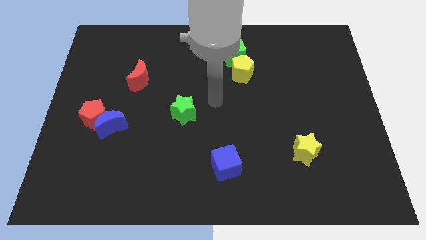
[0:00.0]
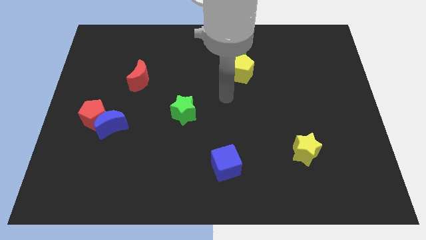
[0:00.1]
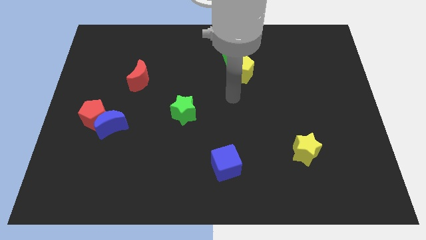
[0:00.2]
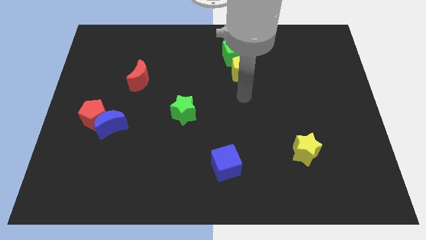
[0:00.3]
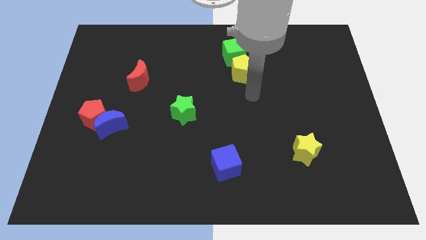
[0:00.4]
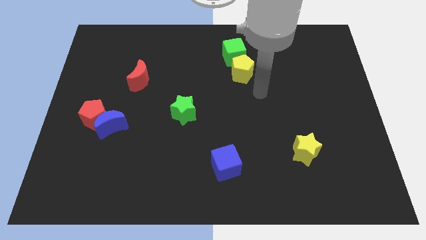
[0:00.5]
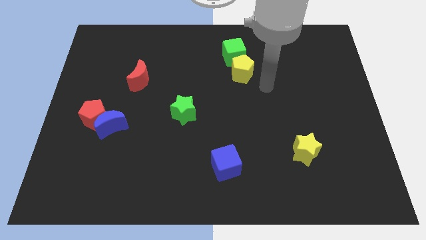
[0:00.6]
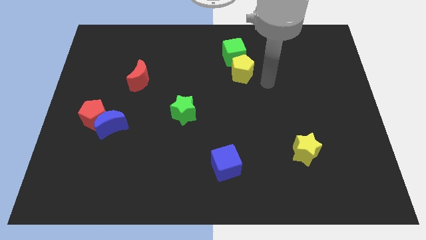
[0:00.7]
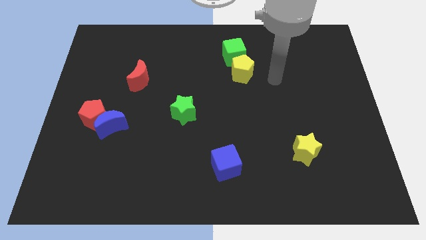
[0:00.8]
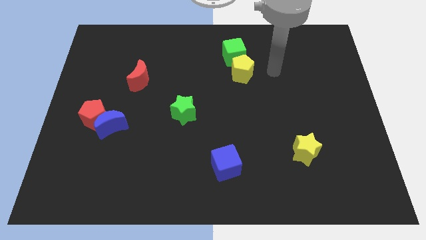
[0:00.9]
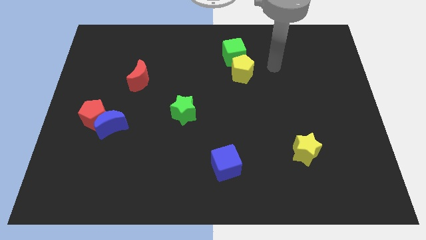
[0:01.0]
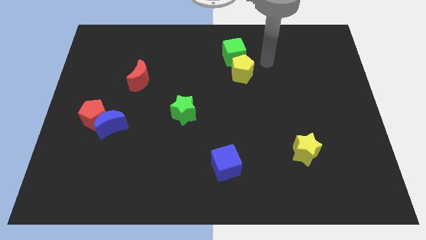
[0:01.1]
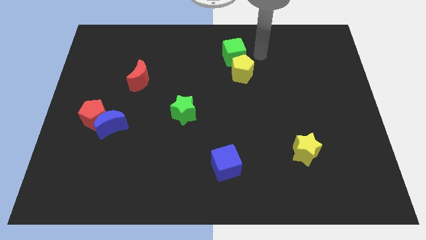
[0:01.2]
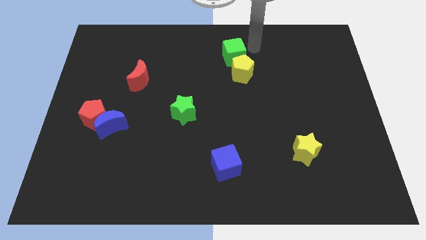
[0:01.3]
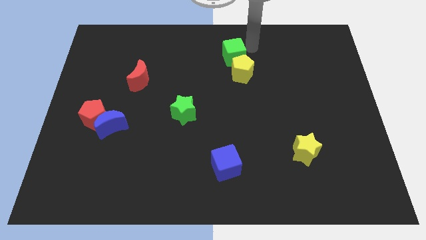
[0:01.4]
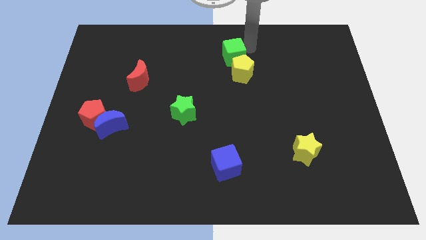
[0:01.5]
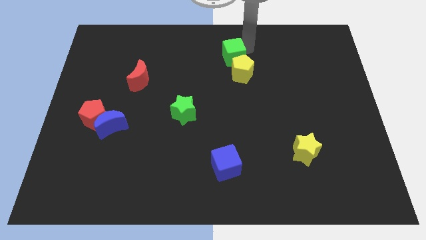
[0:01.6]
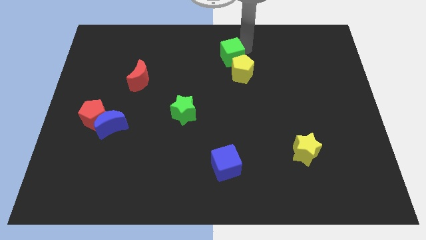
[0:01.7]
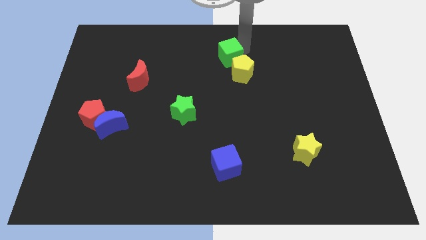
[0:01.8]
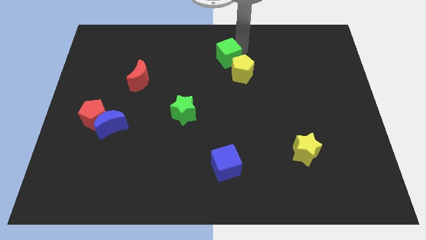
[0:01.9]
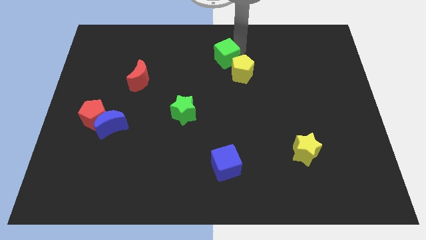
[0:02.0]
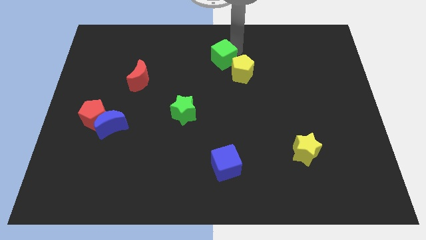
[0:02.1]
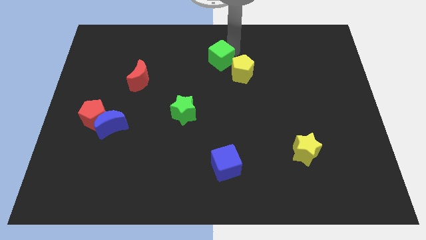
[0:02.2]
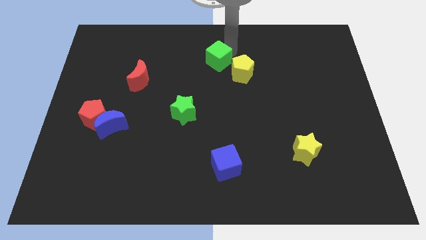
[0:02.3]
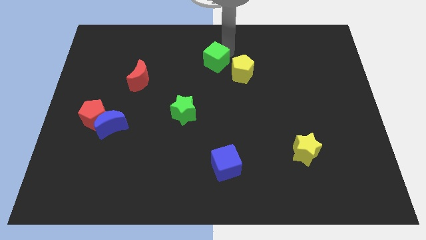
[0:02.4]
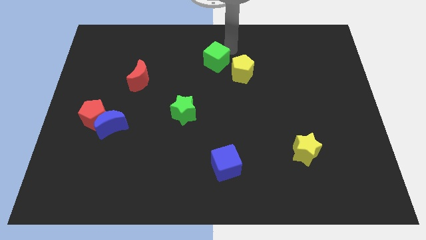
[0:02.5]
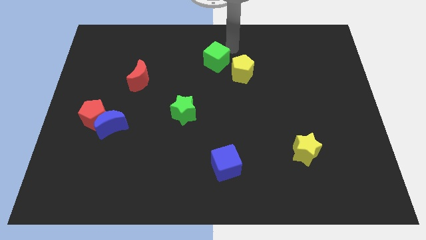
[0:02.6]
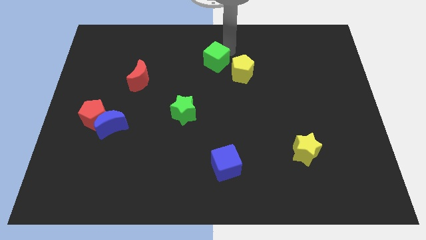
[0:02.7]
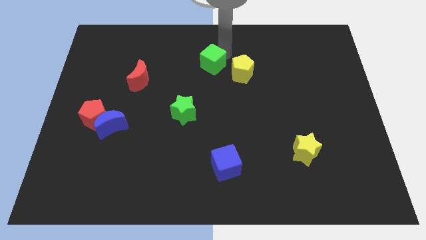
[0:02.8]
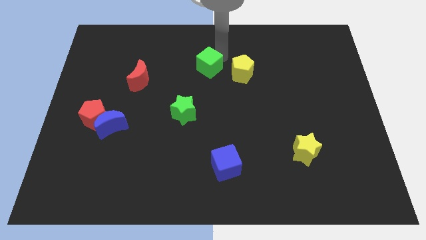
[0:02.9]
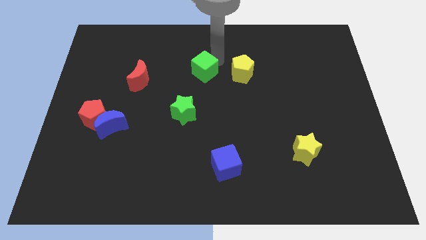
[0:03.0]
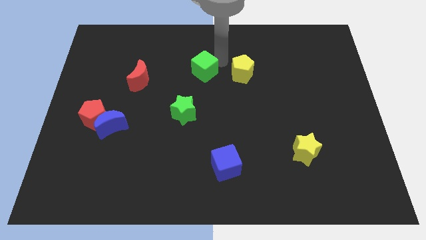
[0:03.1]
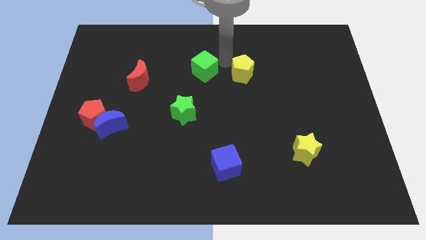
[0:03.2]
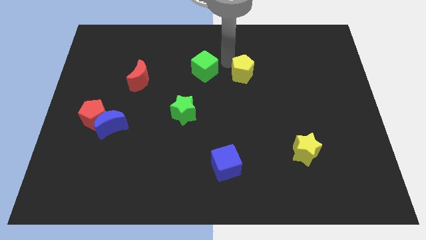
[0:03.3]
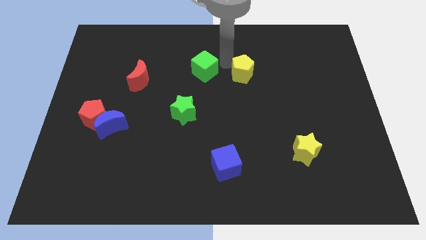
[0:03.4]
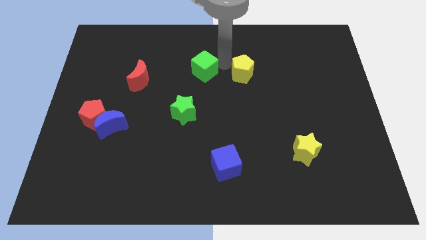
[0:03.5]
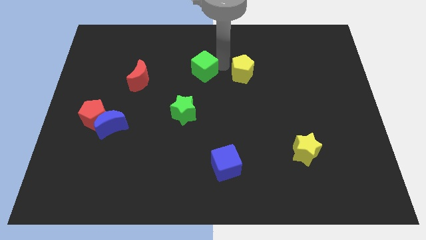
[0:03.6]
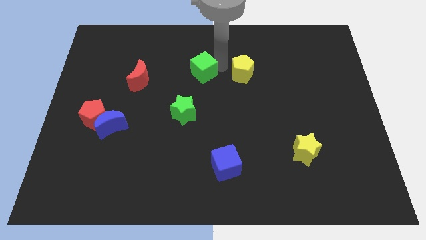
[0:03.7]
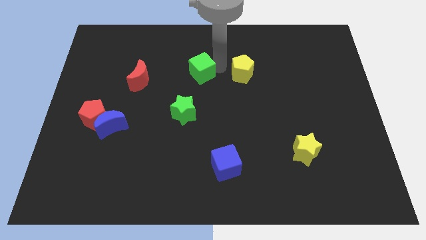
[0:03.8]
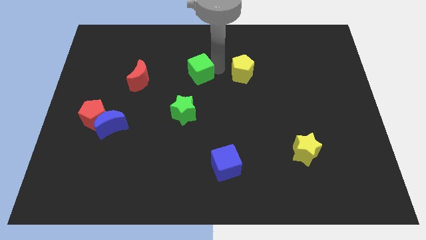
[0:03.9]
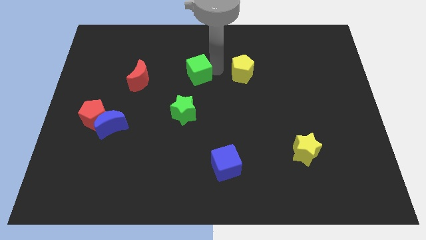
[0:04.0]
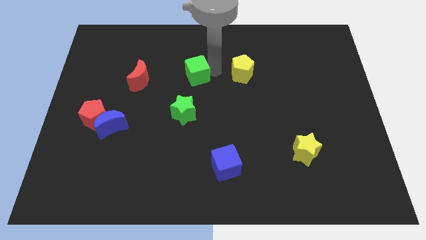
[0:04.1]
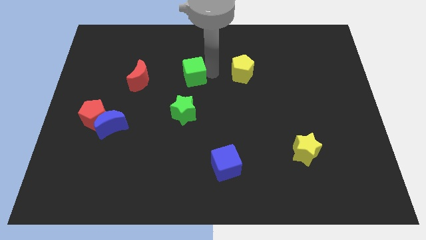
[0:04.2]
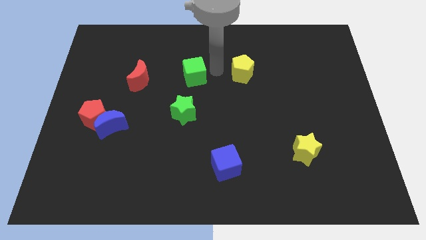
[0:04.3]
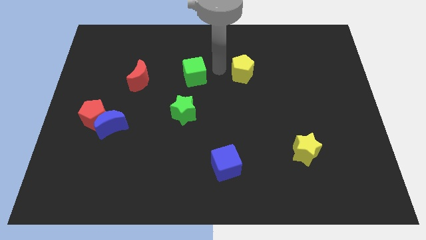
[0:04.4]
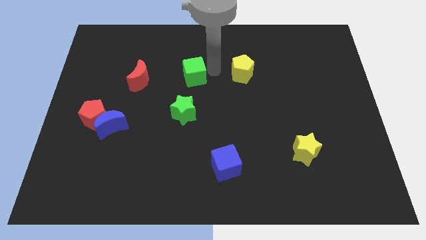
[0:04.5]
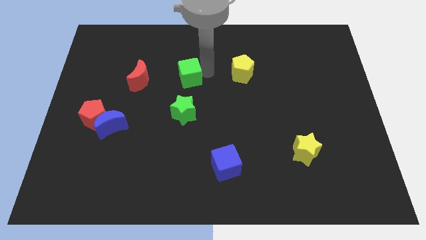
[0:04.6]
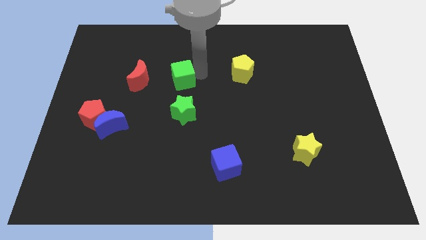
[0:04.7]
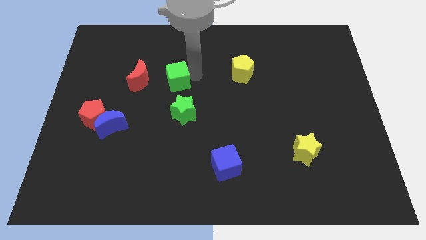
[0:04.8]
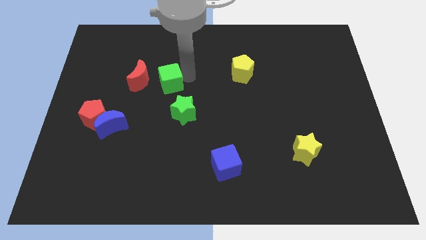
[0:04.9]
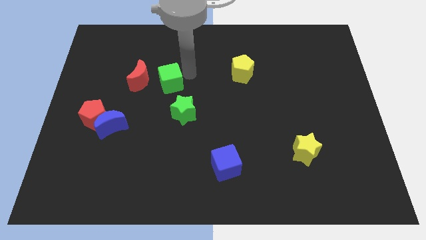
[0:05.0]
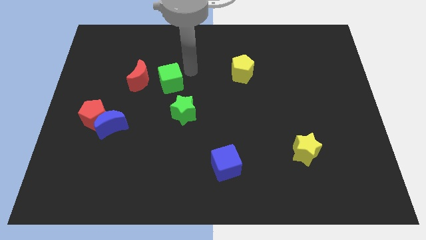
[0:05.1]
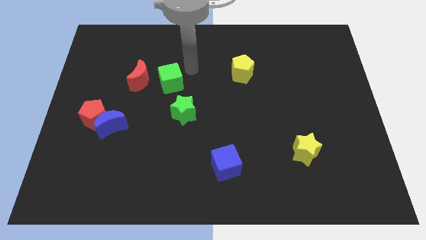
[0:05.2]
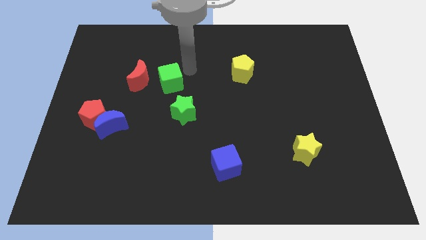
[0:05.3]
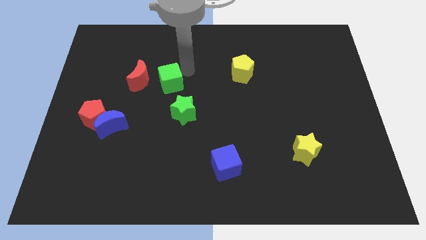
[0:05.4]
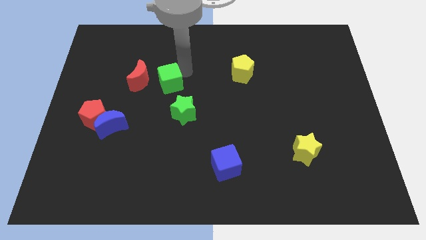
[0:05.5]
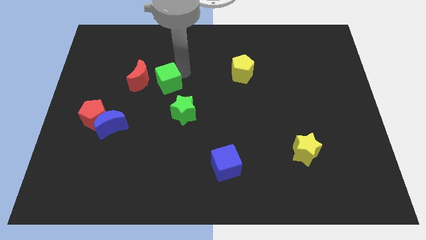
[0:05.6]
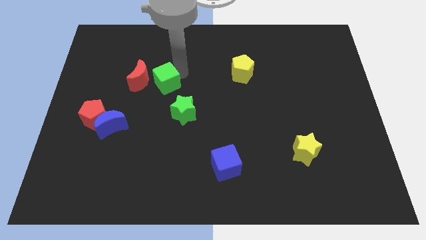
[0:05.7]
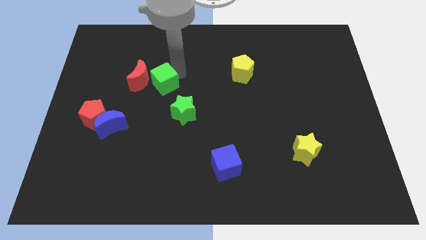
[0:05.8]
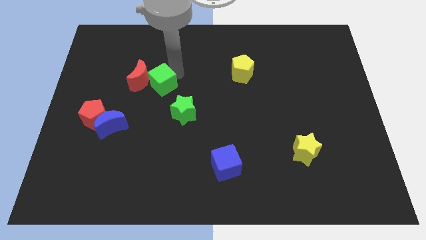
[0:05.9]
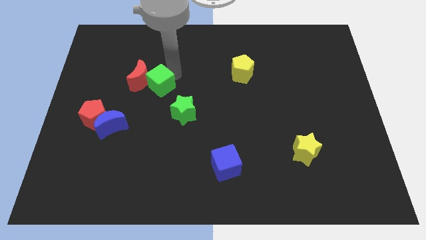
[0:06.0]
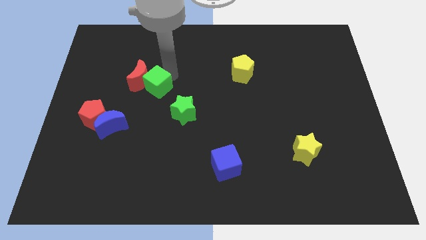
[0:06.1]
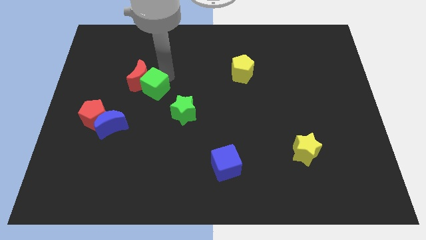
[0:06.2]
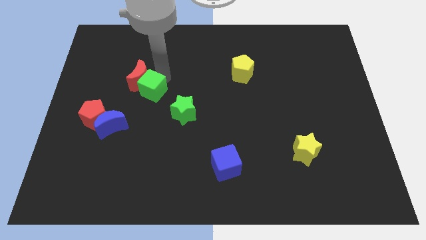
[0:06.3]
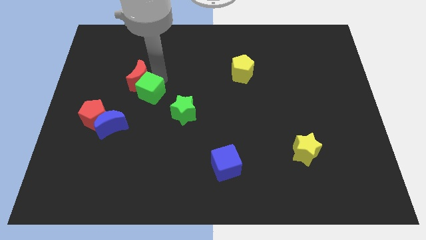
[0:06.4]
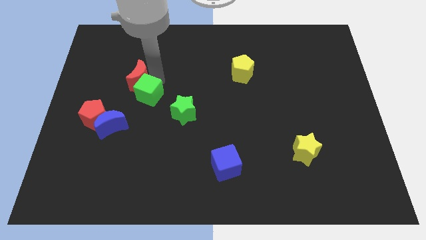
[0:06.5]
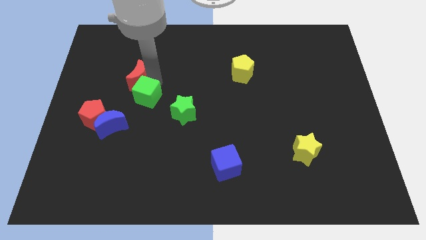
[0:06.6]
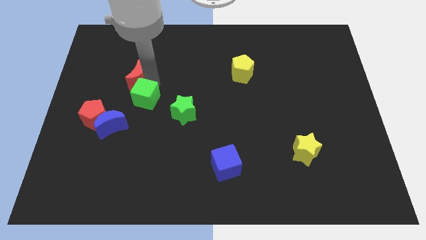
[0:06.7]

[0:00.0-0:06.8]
push the green cube just left of the green star

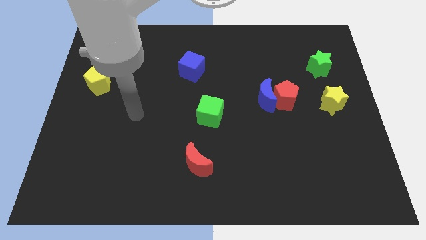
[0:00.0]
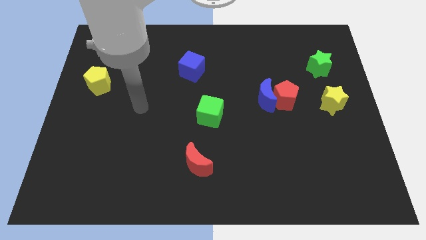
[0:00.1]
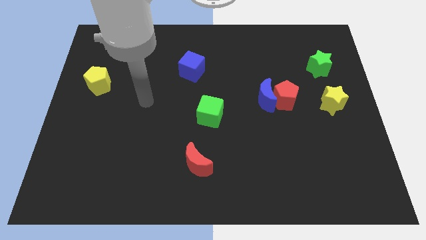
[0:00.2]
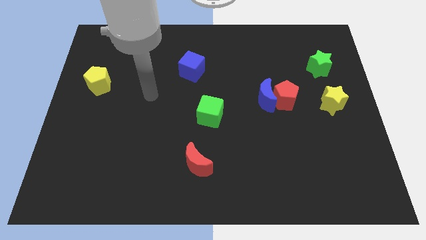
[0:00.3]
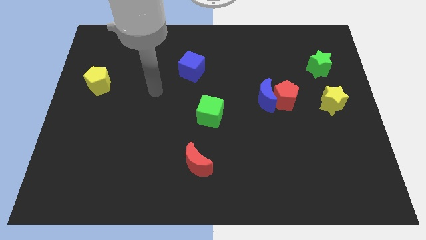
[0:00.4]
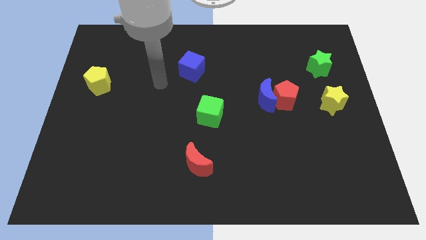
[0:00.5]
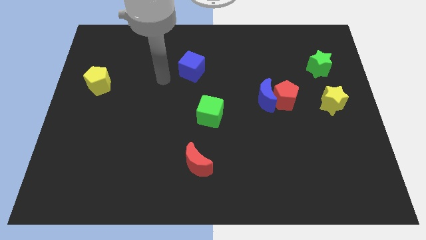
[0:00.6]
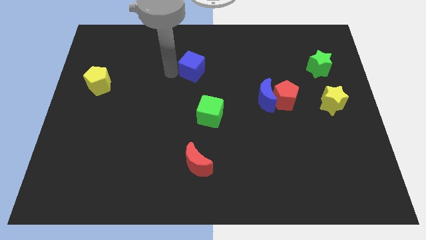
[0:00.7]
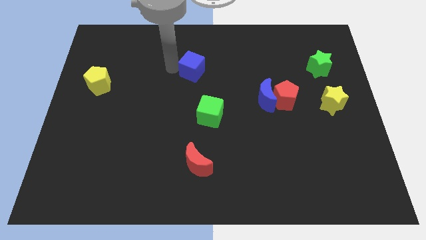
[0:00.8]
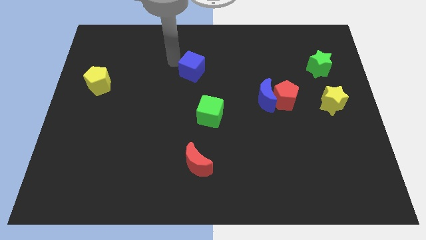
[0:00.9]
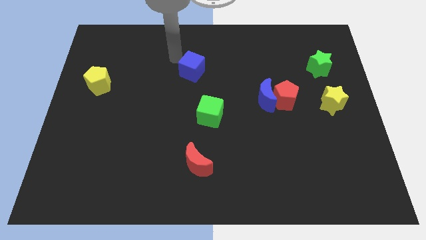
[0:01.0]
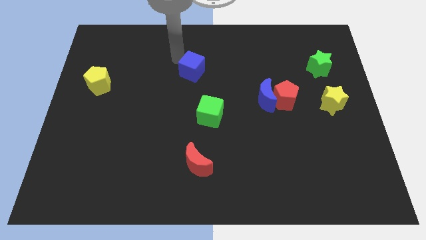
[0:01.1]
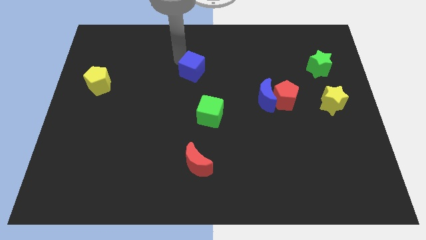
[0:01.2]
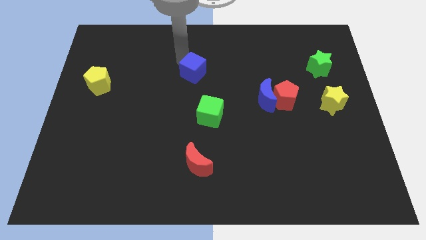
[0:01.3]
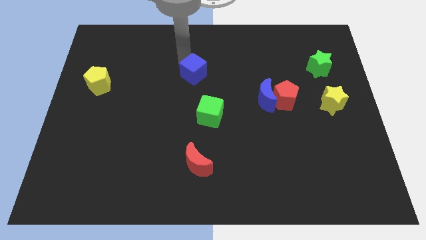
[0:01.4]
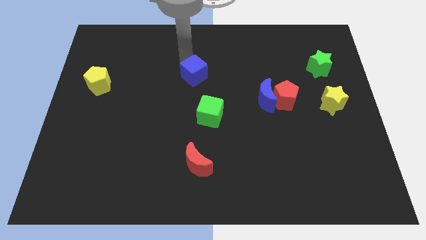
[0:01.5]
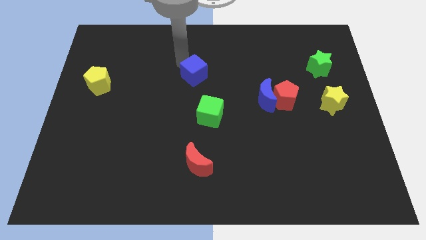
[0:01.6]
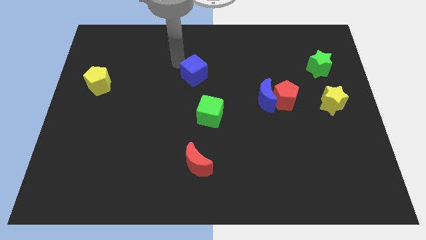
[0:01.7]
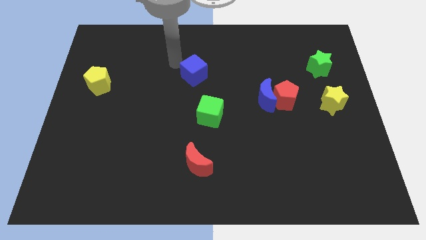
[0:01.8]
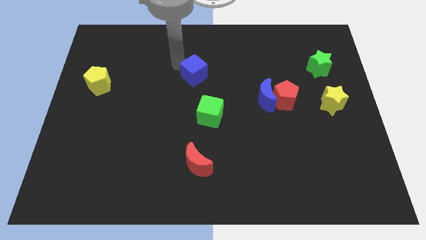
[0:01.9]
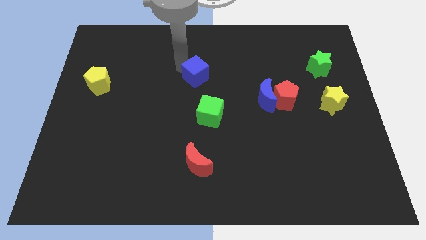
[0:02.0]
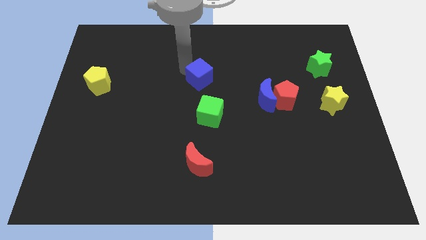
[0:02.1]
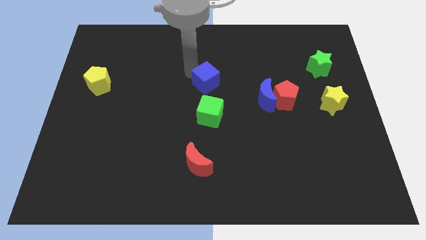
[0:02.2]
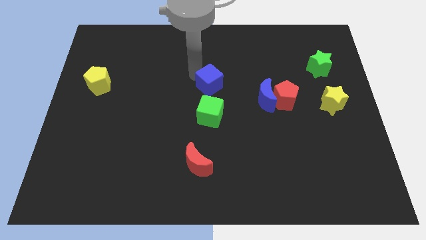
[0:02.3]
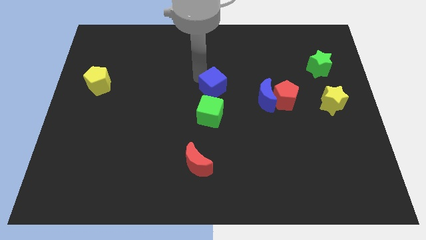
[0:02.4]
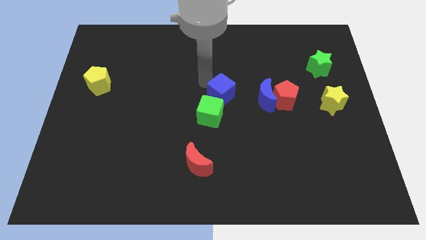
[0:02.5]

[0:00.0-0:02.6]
push the blue cube just left of the red pentagon
